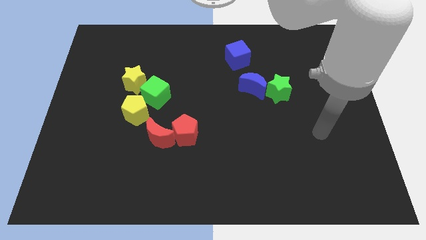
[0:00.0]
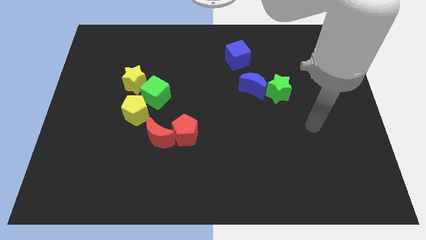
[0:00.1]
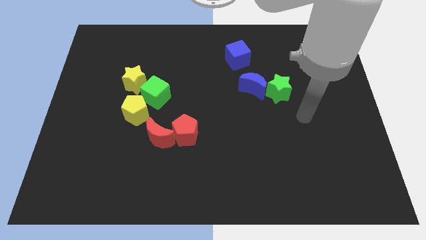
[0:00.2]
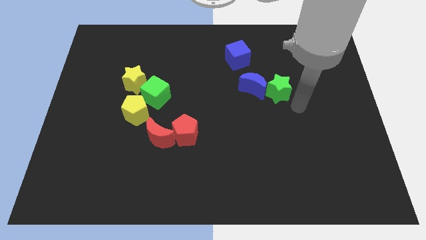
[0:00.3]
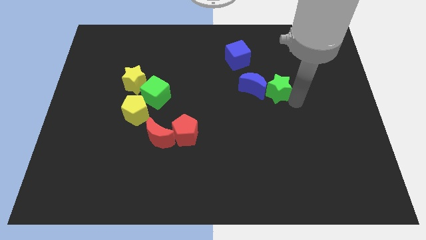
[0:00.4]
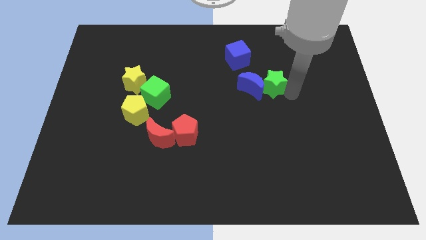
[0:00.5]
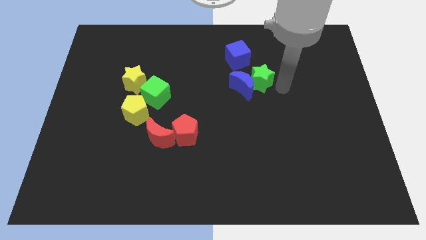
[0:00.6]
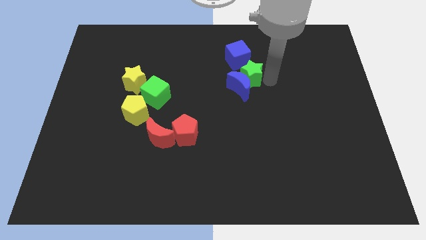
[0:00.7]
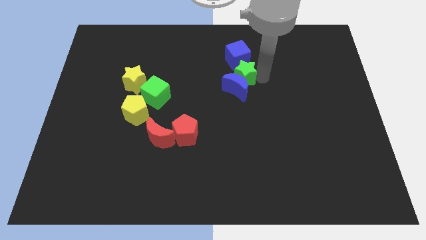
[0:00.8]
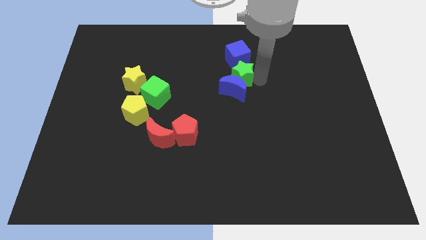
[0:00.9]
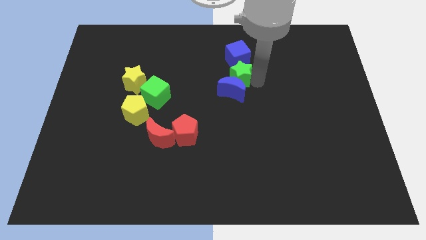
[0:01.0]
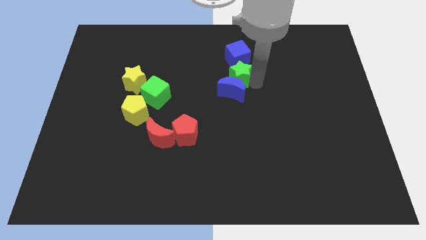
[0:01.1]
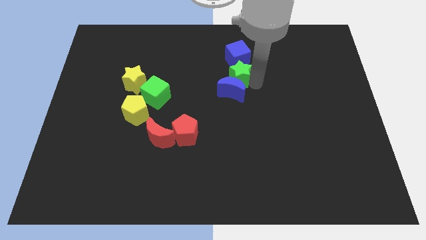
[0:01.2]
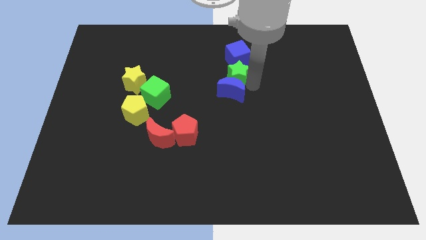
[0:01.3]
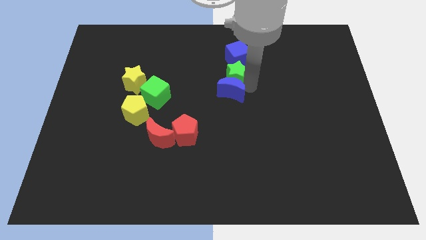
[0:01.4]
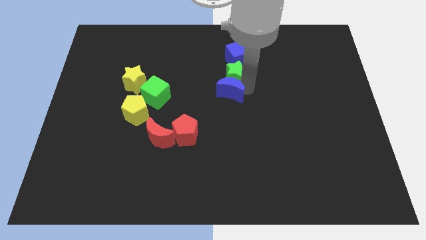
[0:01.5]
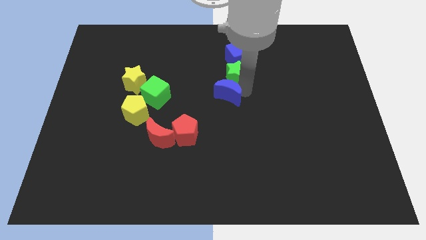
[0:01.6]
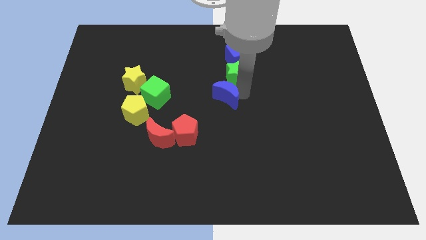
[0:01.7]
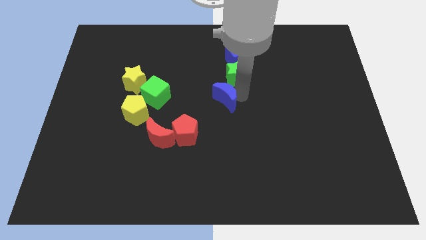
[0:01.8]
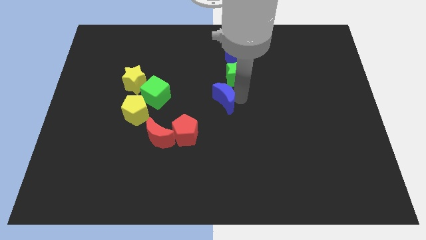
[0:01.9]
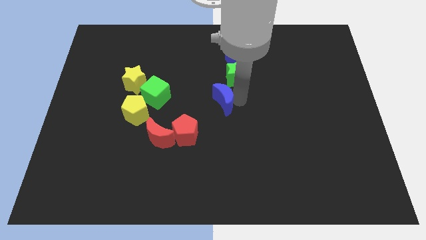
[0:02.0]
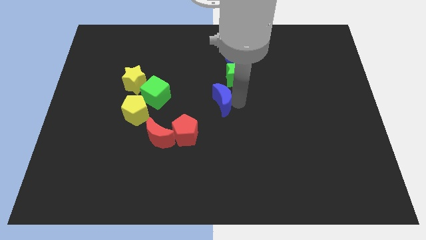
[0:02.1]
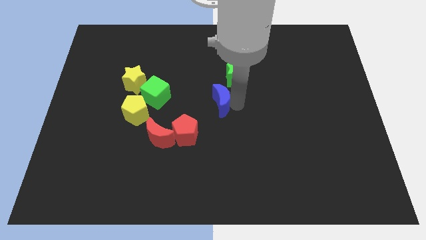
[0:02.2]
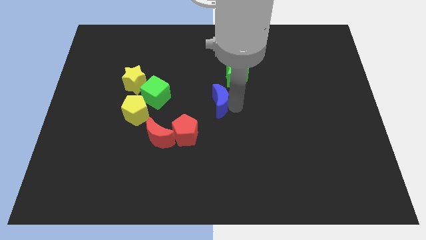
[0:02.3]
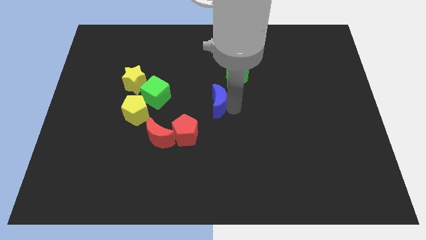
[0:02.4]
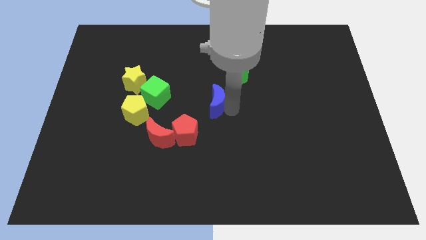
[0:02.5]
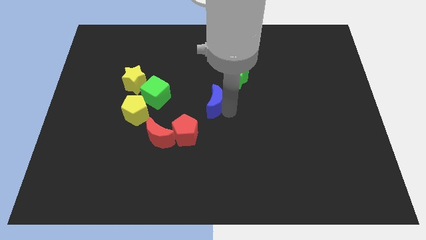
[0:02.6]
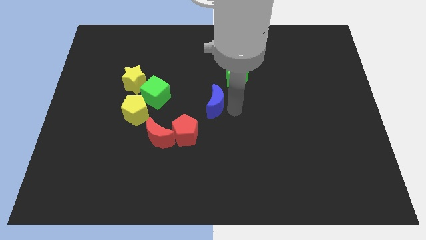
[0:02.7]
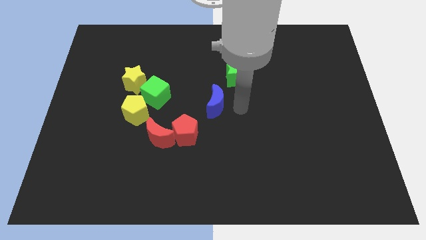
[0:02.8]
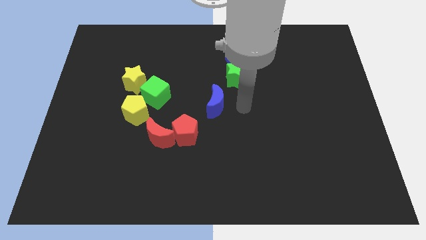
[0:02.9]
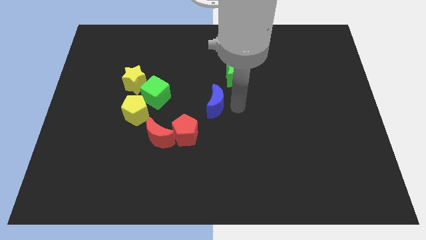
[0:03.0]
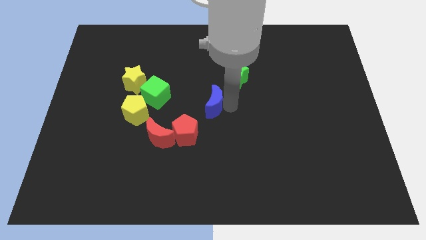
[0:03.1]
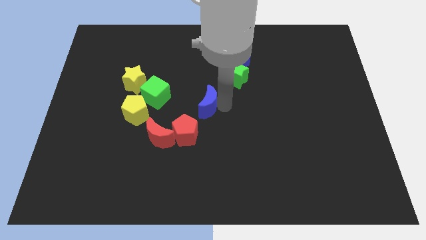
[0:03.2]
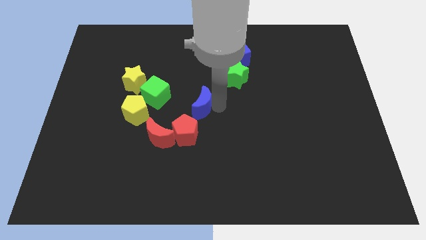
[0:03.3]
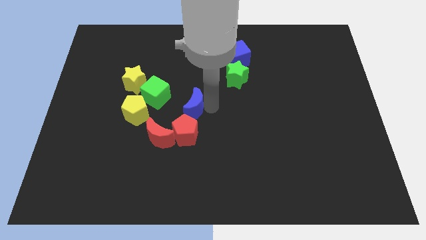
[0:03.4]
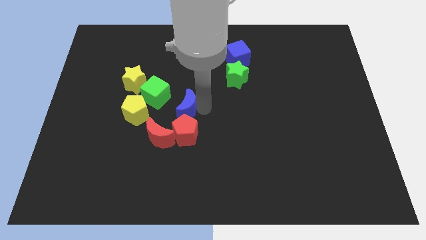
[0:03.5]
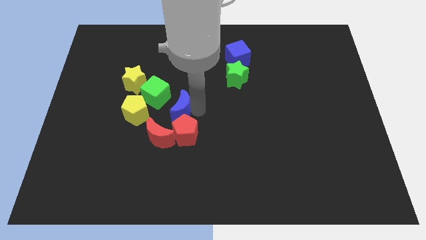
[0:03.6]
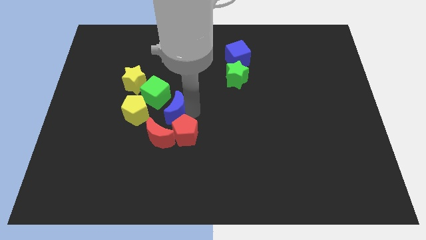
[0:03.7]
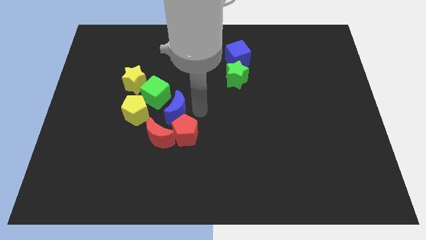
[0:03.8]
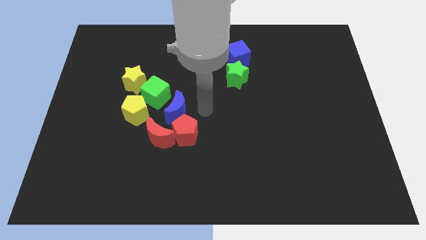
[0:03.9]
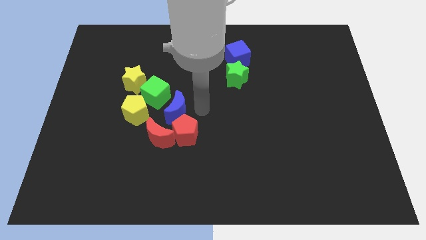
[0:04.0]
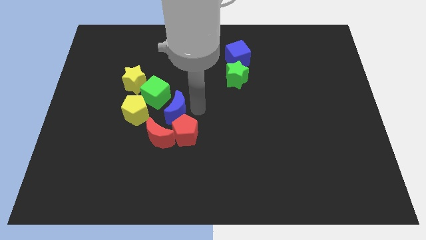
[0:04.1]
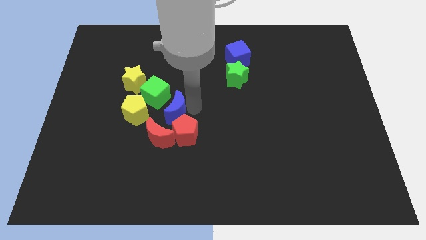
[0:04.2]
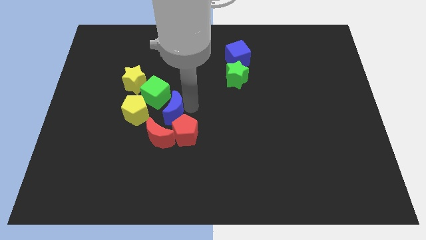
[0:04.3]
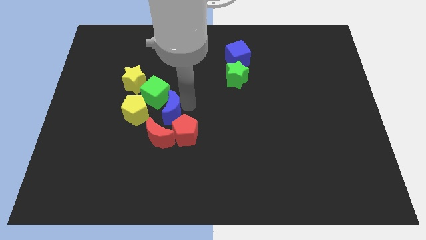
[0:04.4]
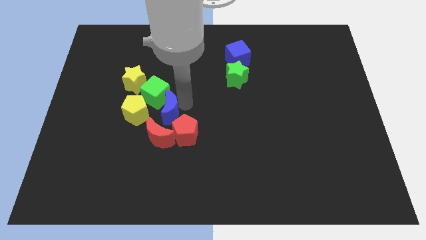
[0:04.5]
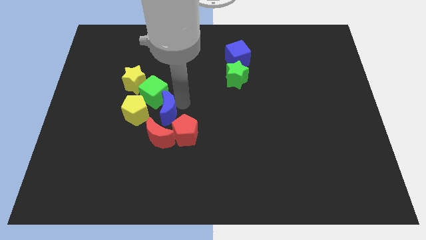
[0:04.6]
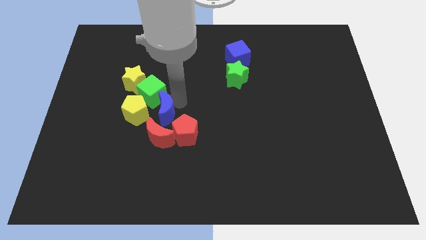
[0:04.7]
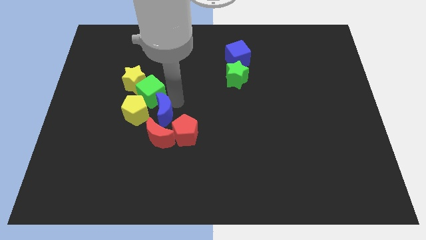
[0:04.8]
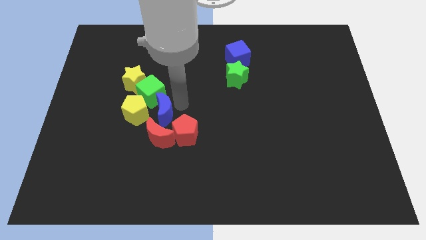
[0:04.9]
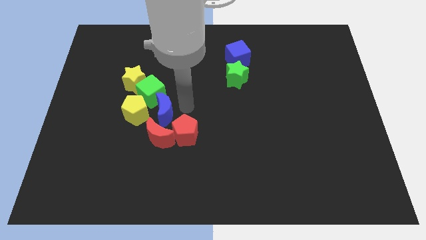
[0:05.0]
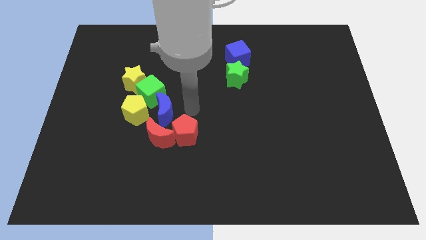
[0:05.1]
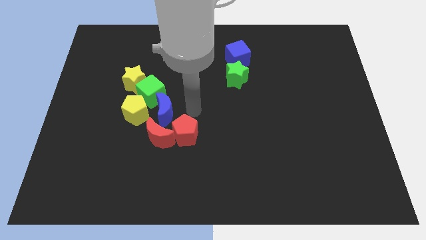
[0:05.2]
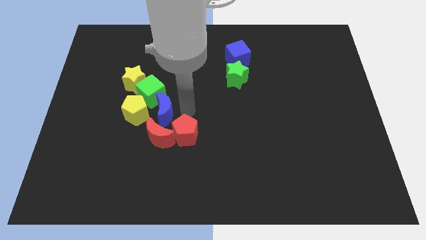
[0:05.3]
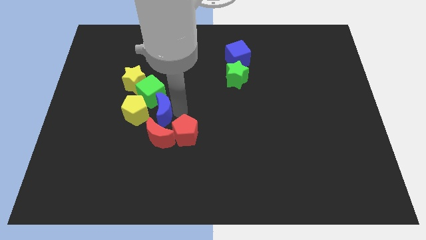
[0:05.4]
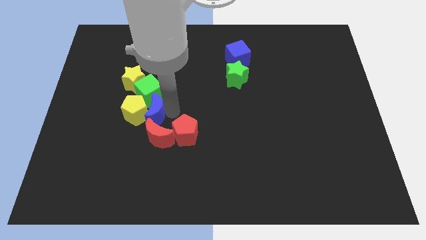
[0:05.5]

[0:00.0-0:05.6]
slide the blue moon towards the yellow pentagon

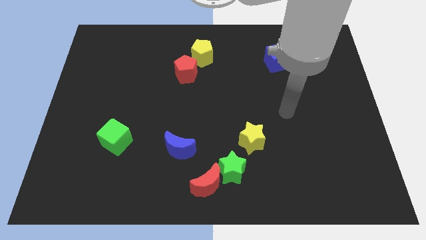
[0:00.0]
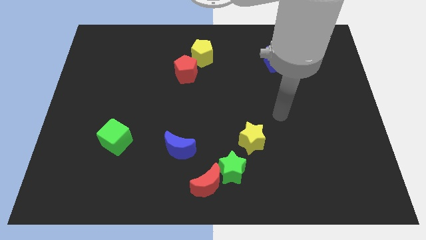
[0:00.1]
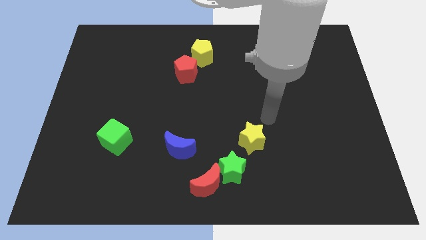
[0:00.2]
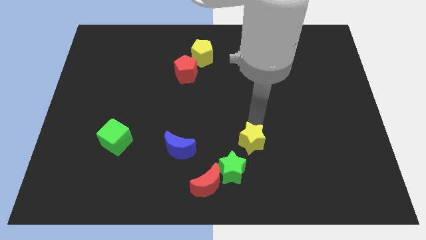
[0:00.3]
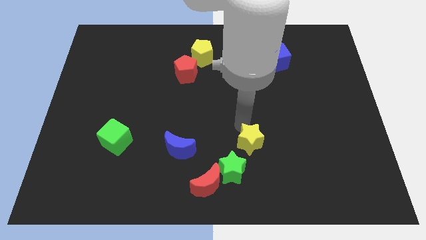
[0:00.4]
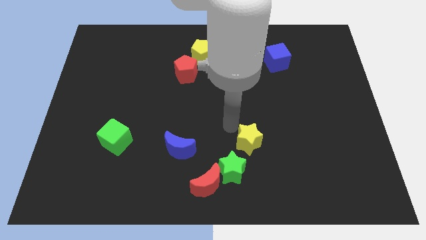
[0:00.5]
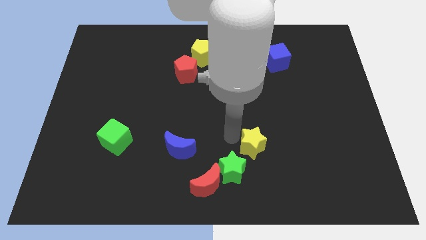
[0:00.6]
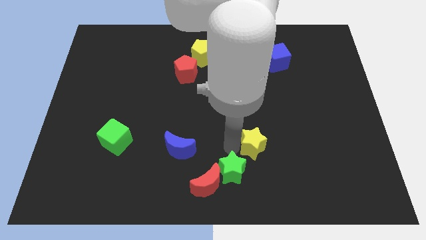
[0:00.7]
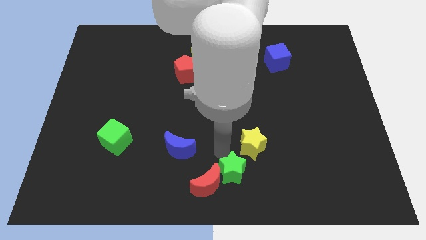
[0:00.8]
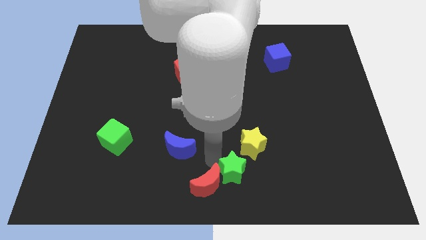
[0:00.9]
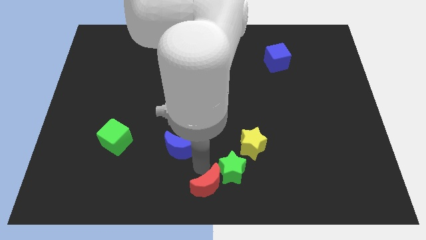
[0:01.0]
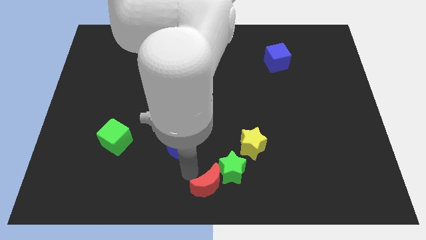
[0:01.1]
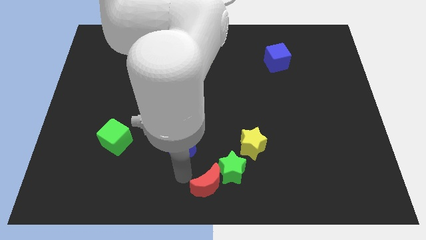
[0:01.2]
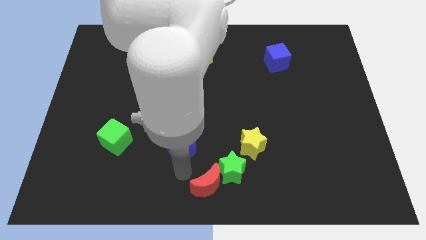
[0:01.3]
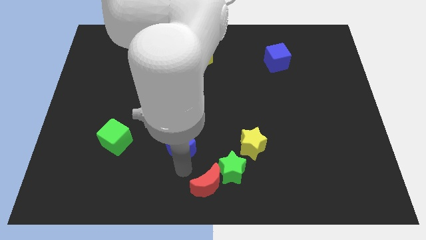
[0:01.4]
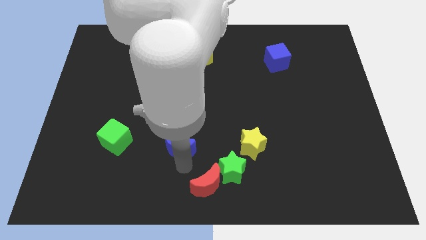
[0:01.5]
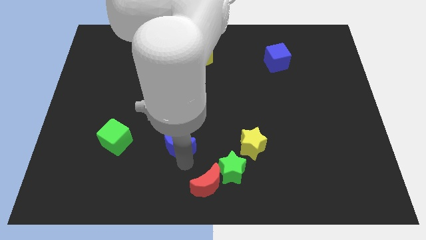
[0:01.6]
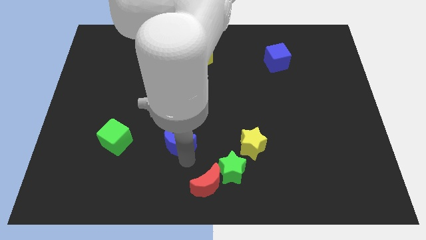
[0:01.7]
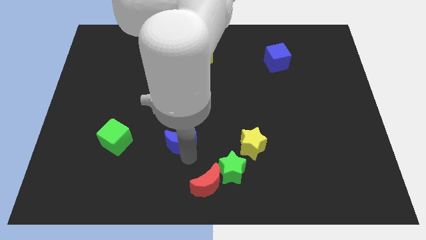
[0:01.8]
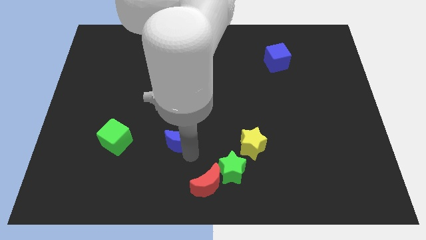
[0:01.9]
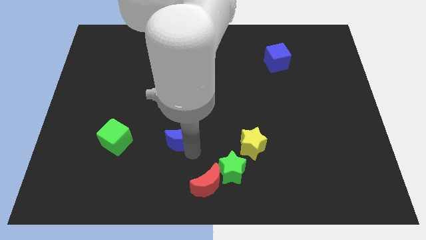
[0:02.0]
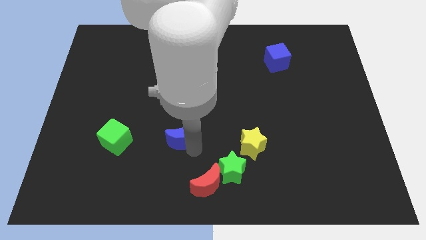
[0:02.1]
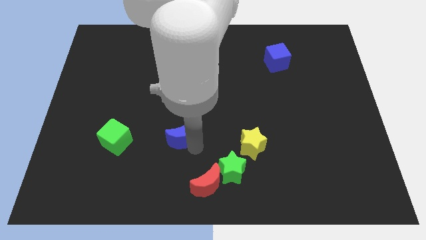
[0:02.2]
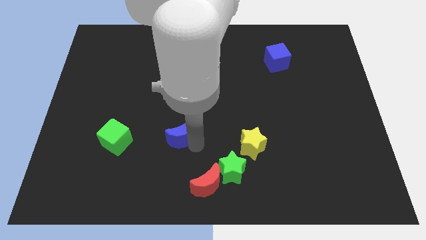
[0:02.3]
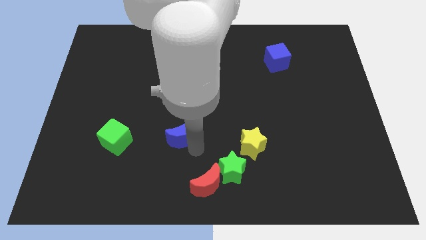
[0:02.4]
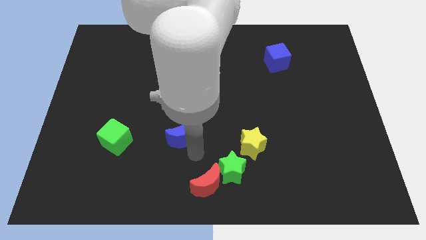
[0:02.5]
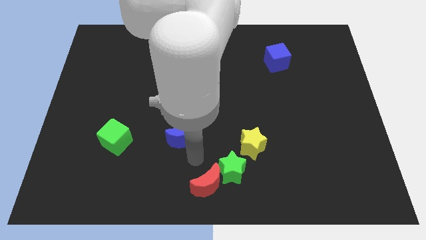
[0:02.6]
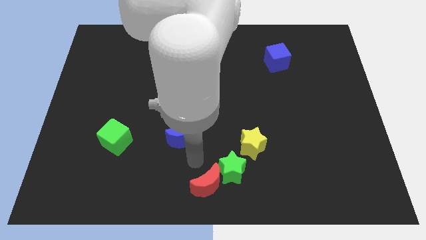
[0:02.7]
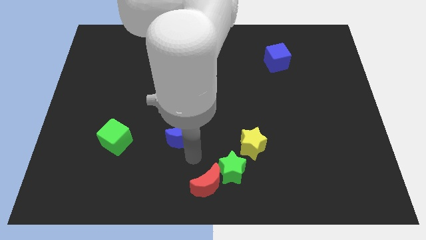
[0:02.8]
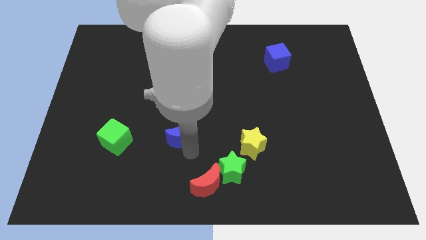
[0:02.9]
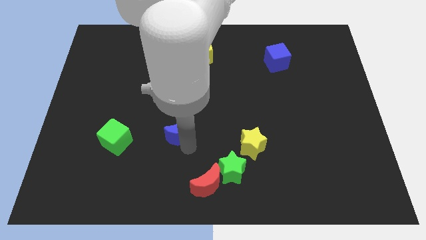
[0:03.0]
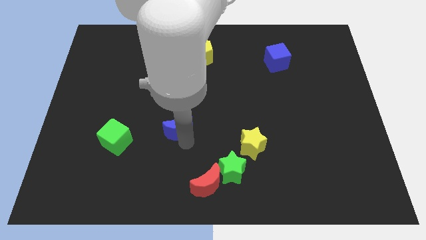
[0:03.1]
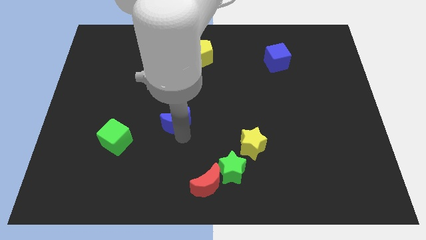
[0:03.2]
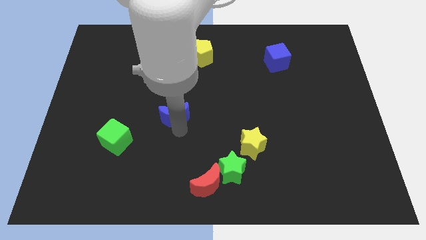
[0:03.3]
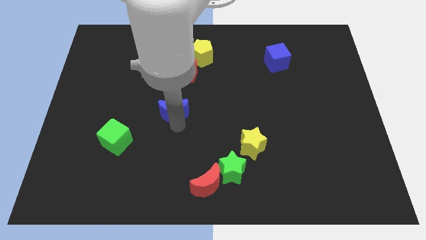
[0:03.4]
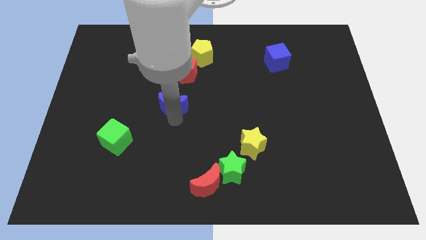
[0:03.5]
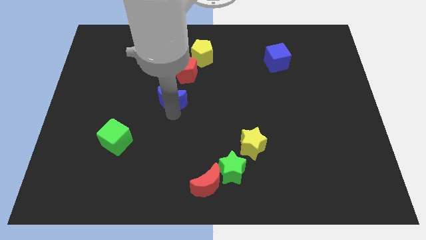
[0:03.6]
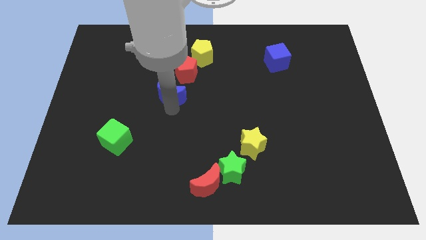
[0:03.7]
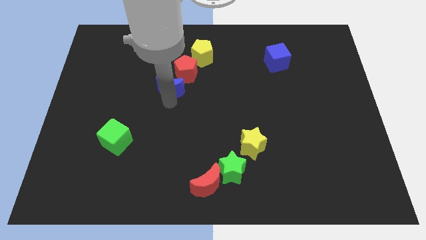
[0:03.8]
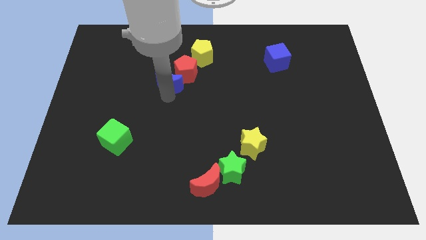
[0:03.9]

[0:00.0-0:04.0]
push the blue moon to the red pentagon
